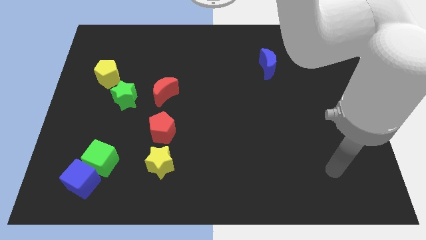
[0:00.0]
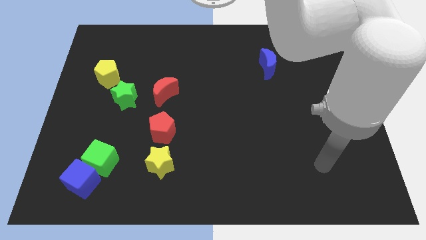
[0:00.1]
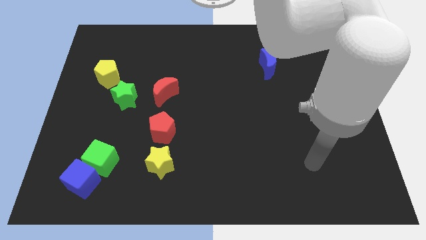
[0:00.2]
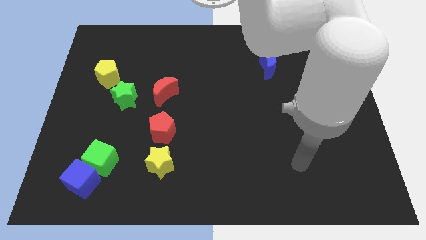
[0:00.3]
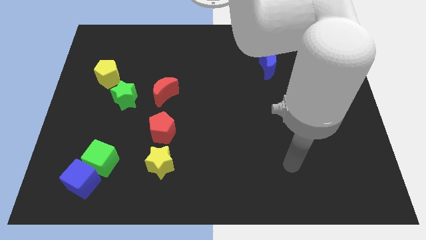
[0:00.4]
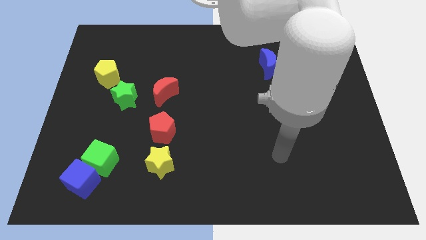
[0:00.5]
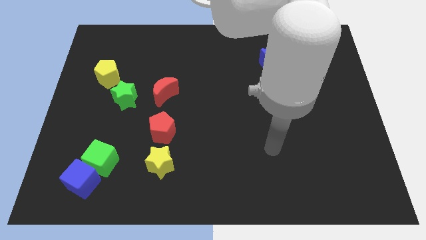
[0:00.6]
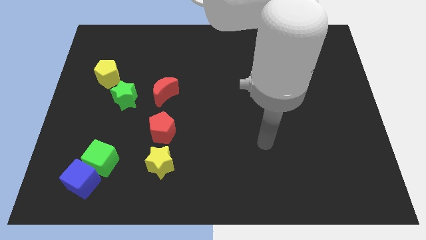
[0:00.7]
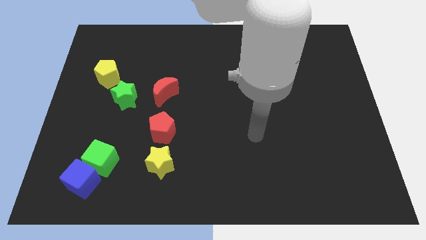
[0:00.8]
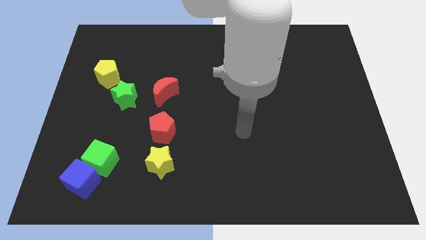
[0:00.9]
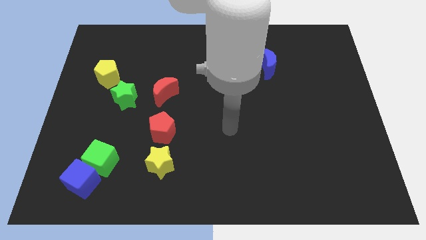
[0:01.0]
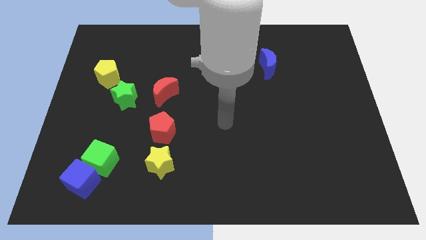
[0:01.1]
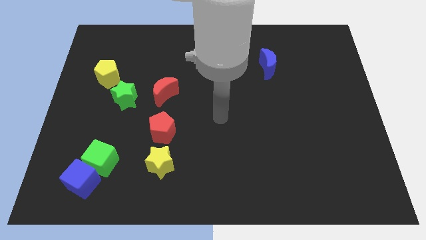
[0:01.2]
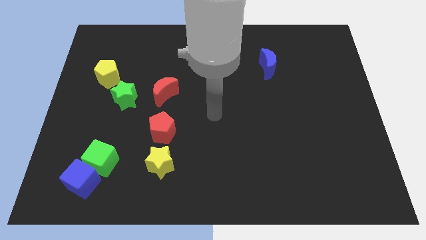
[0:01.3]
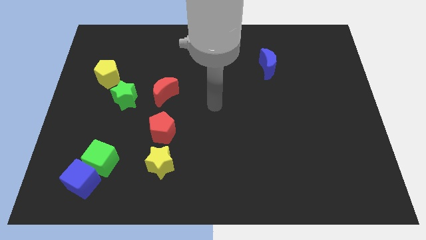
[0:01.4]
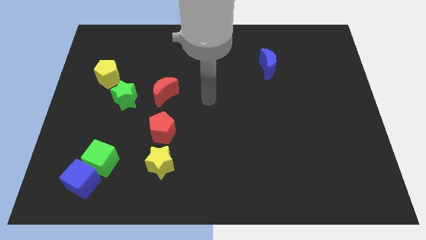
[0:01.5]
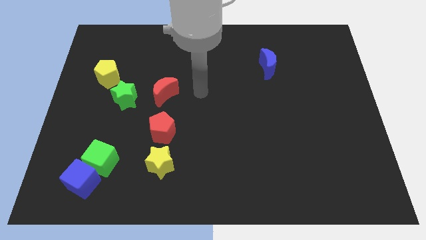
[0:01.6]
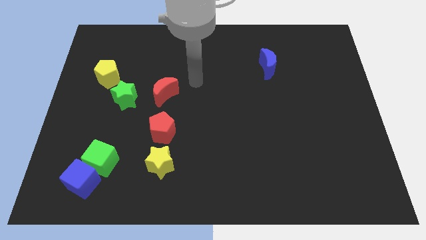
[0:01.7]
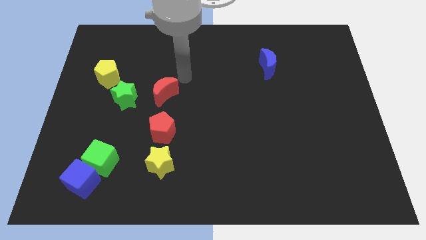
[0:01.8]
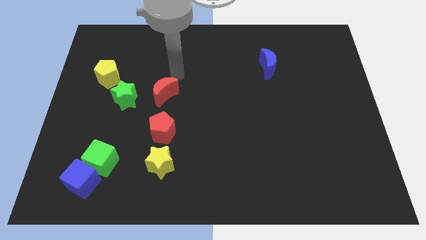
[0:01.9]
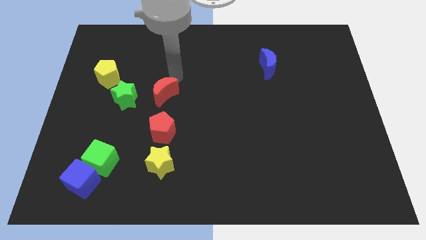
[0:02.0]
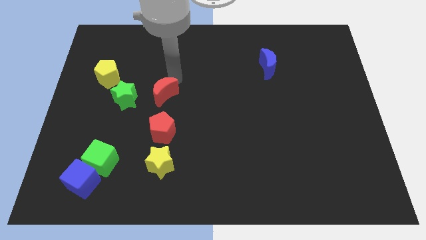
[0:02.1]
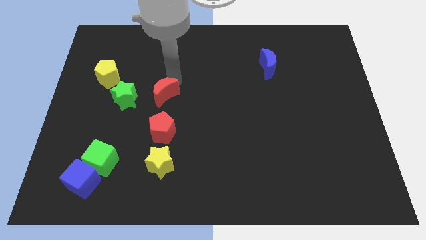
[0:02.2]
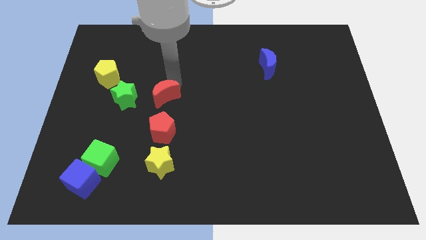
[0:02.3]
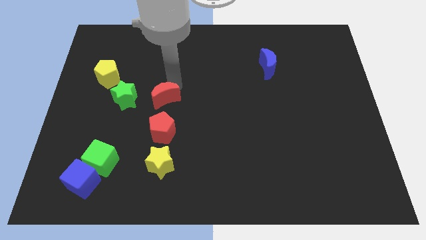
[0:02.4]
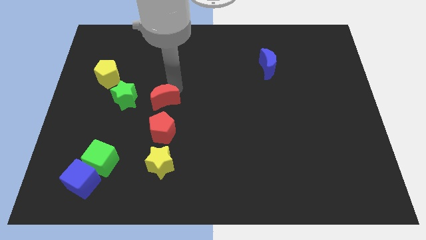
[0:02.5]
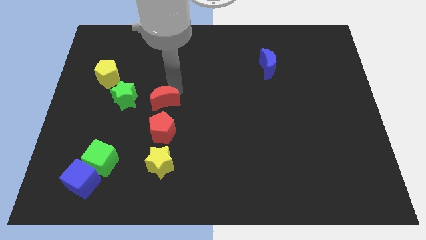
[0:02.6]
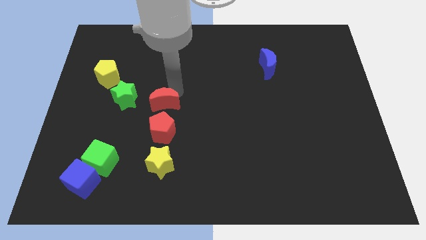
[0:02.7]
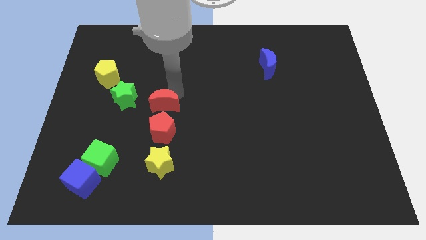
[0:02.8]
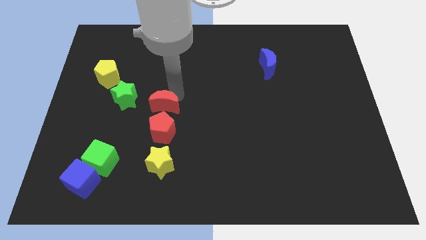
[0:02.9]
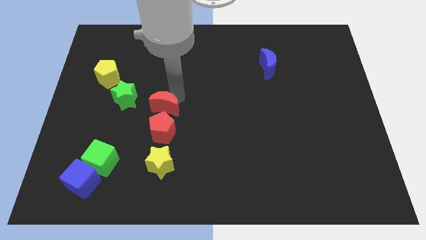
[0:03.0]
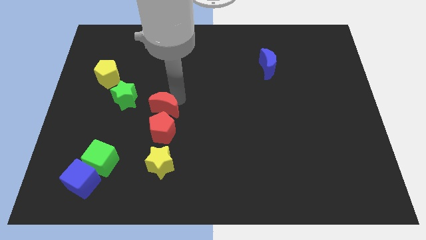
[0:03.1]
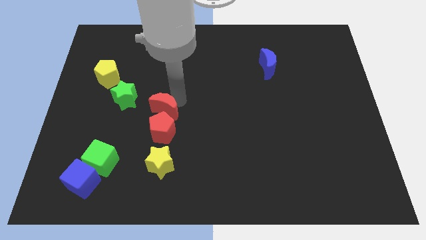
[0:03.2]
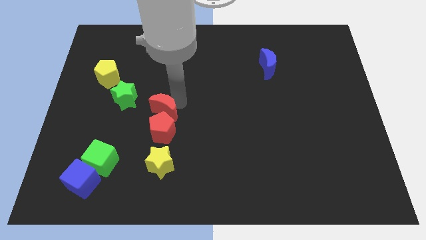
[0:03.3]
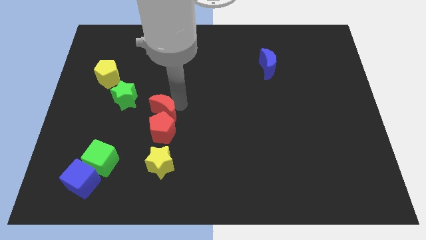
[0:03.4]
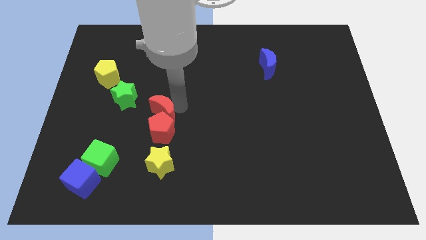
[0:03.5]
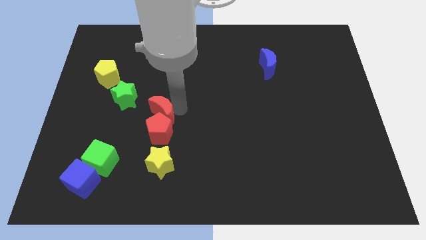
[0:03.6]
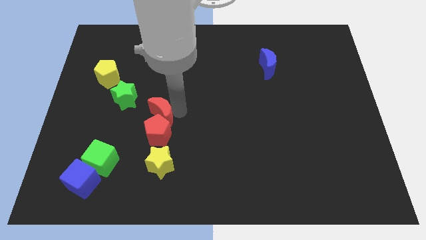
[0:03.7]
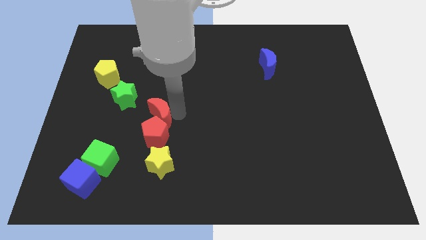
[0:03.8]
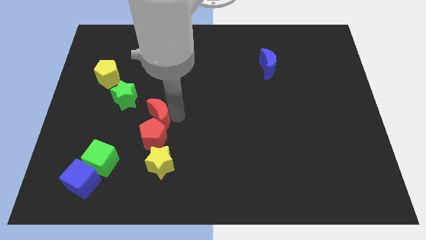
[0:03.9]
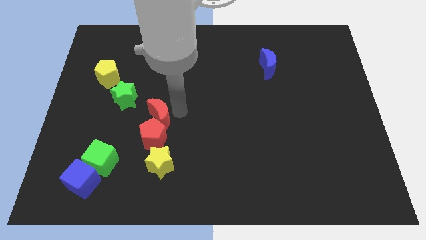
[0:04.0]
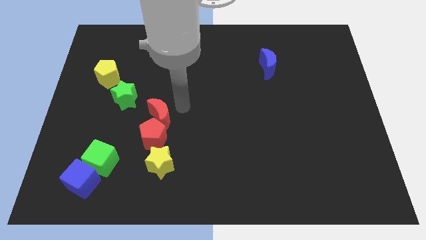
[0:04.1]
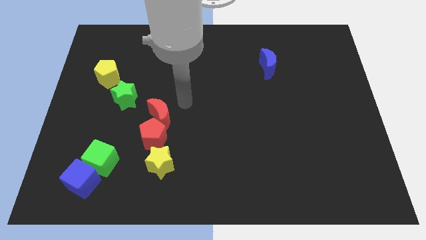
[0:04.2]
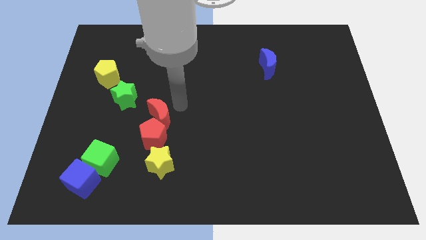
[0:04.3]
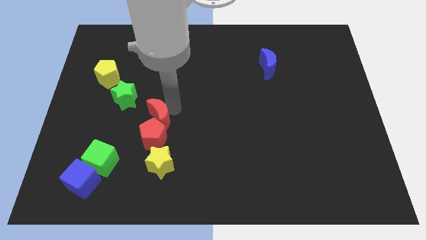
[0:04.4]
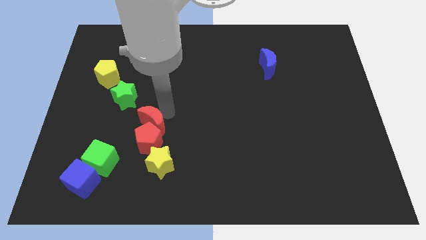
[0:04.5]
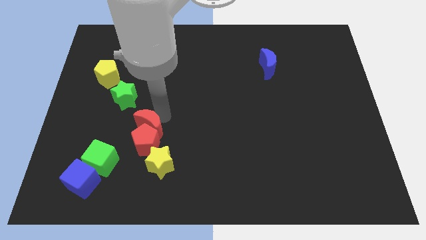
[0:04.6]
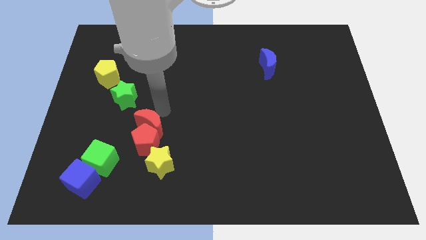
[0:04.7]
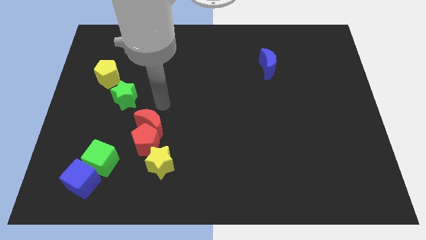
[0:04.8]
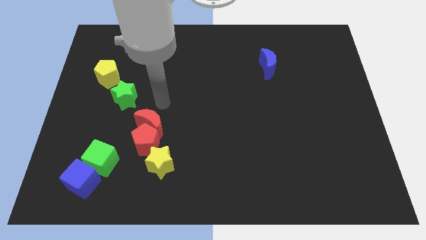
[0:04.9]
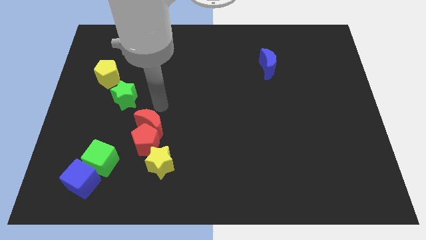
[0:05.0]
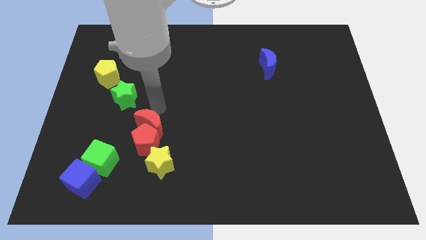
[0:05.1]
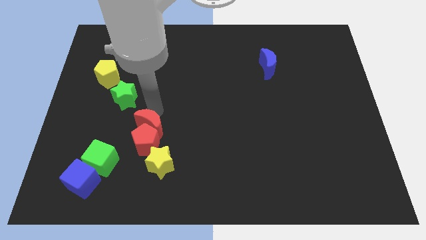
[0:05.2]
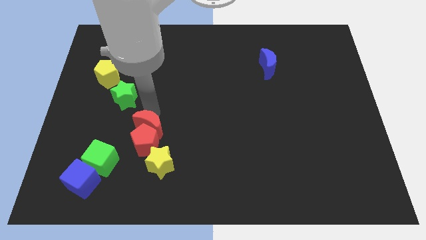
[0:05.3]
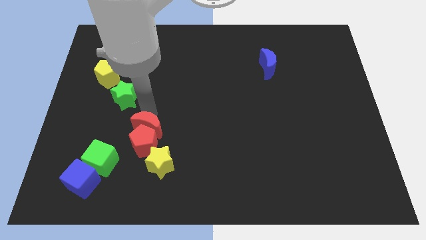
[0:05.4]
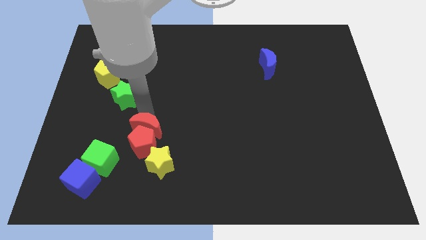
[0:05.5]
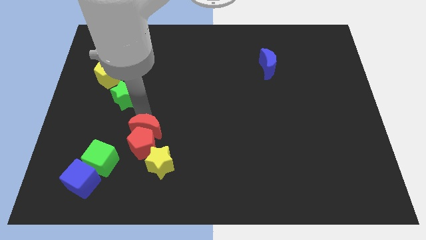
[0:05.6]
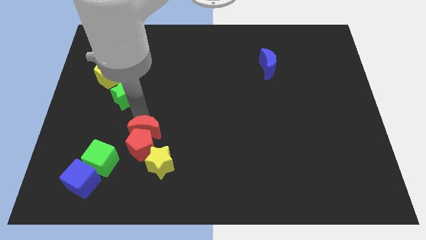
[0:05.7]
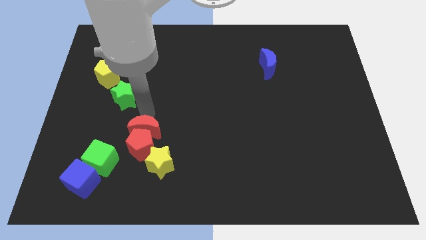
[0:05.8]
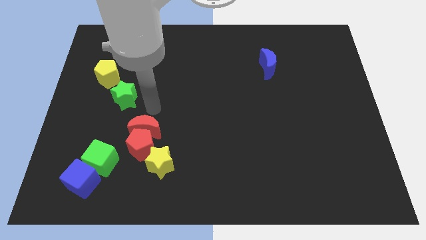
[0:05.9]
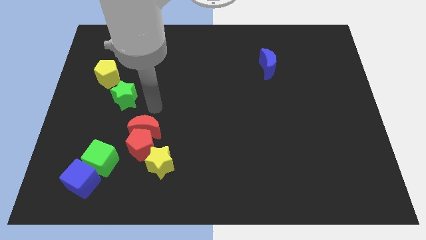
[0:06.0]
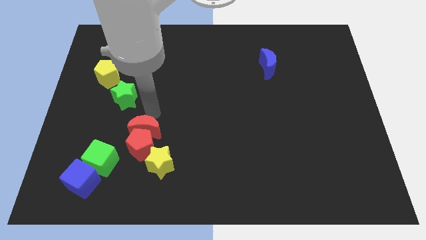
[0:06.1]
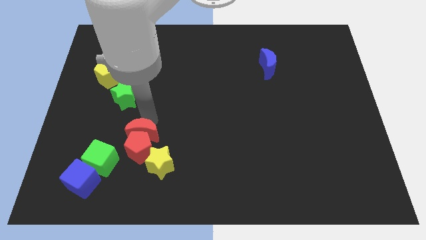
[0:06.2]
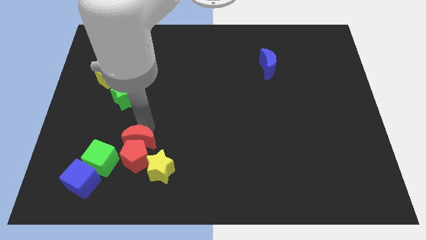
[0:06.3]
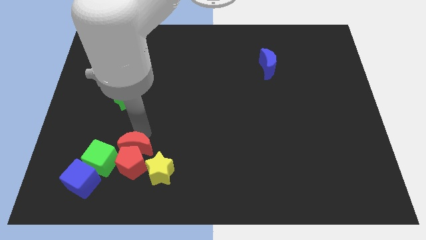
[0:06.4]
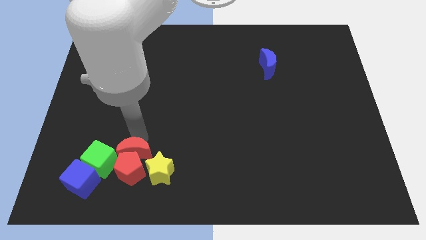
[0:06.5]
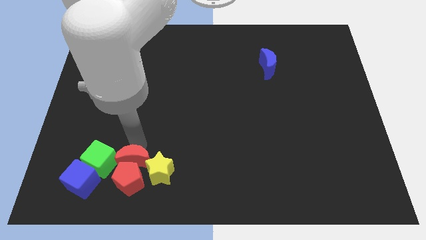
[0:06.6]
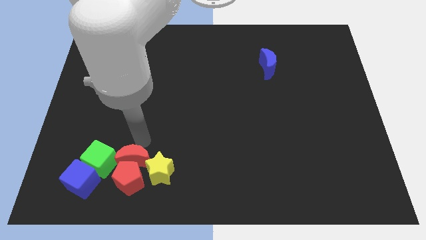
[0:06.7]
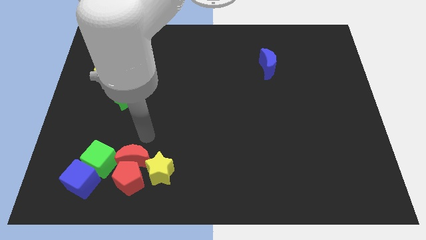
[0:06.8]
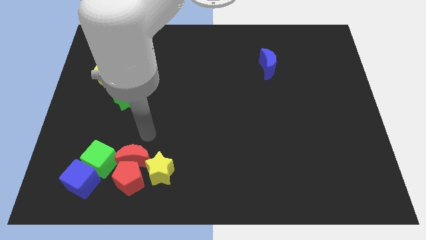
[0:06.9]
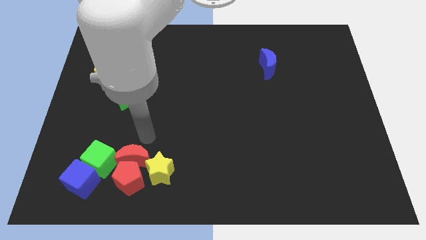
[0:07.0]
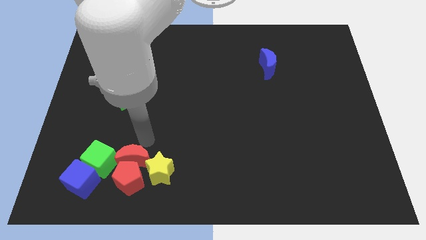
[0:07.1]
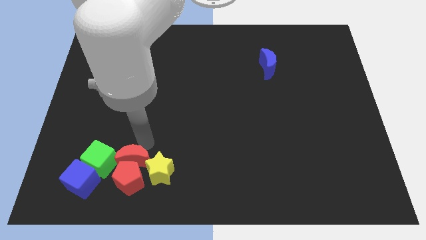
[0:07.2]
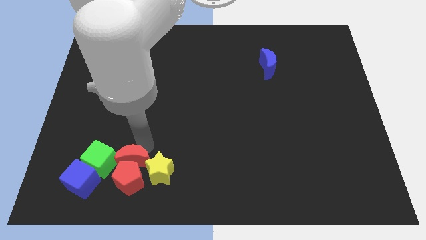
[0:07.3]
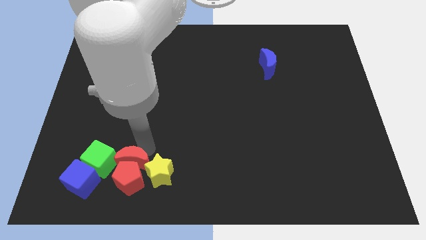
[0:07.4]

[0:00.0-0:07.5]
slide the red moon to the bottom right of the green cube
